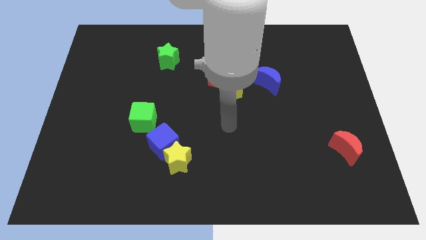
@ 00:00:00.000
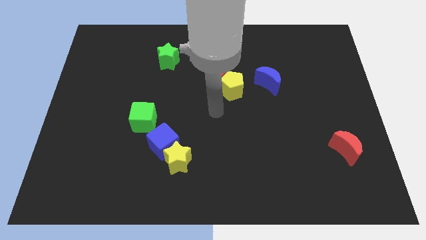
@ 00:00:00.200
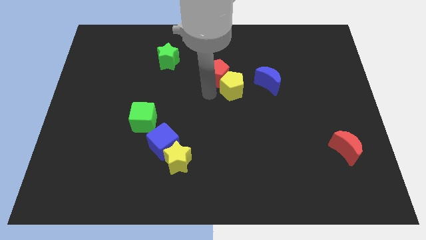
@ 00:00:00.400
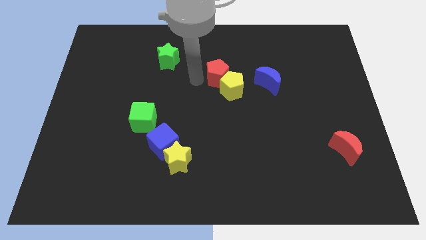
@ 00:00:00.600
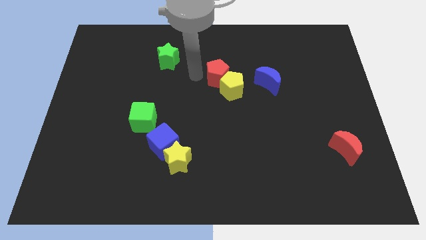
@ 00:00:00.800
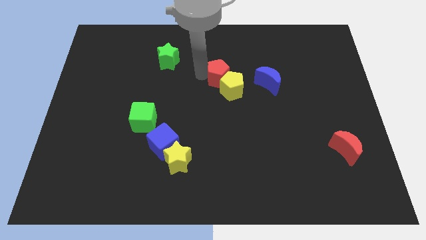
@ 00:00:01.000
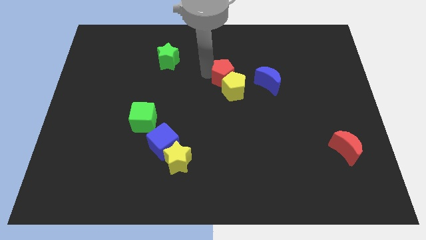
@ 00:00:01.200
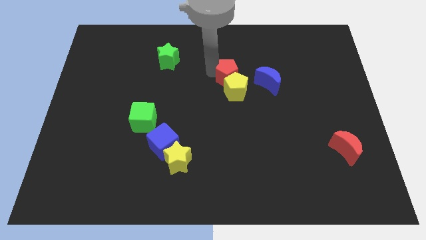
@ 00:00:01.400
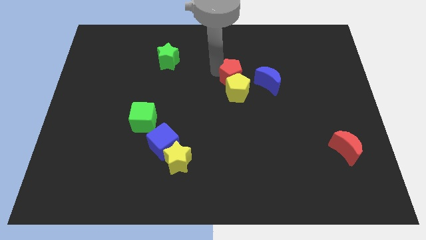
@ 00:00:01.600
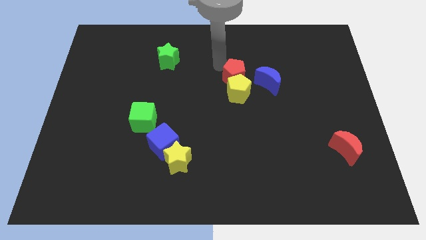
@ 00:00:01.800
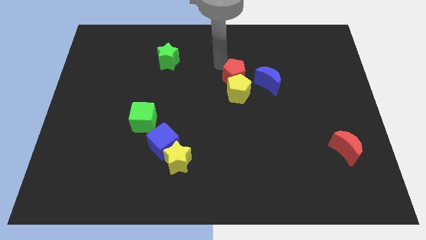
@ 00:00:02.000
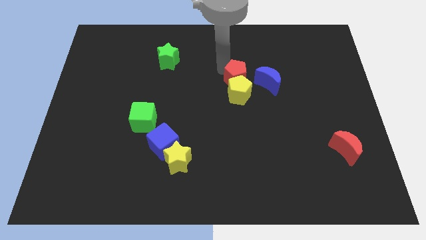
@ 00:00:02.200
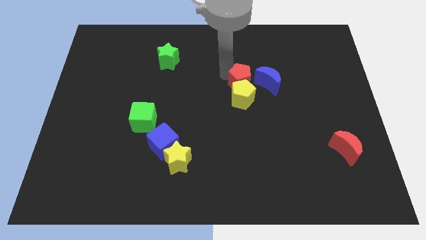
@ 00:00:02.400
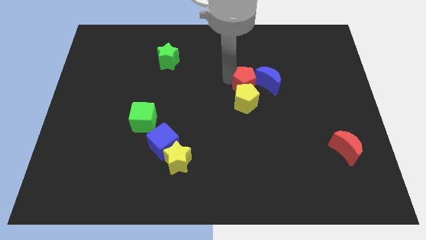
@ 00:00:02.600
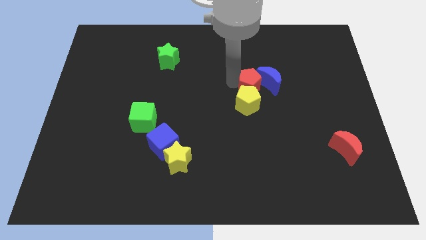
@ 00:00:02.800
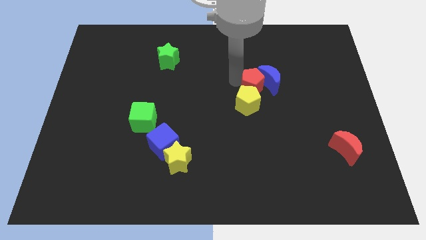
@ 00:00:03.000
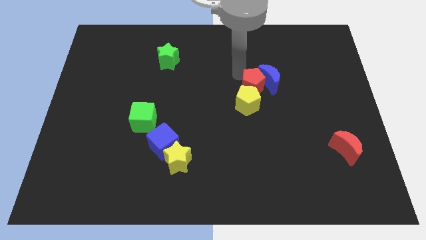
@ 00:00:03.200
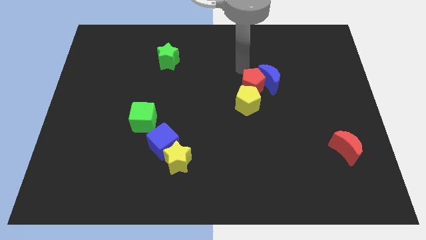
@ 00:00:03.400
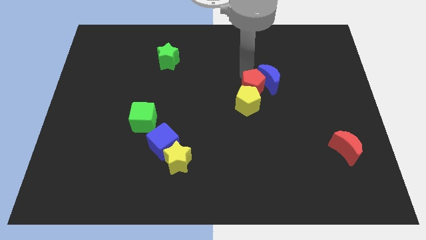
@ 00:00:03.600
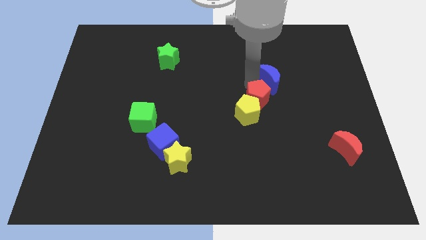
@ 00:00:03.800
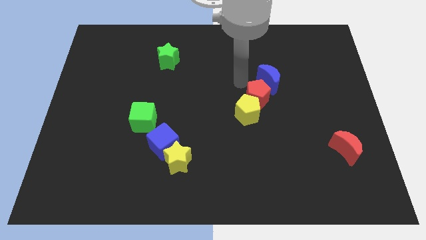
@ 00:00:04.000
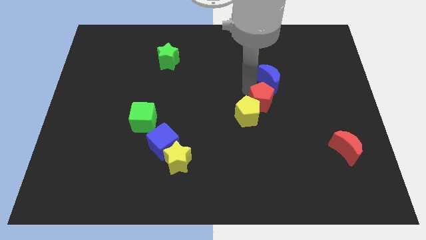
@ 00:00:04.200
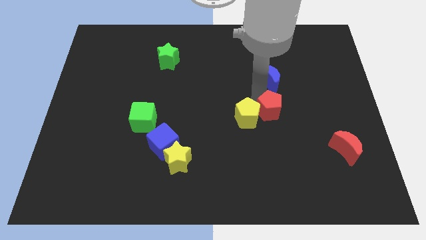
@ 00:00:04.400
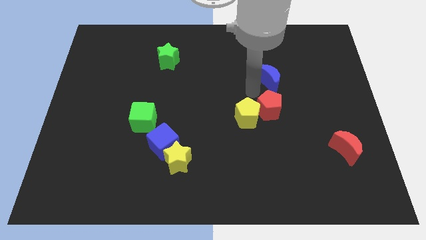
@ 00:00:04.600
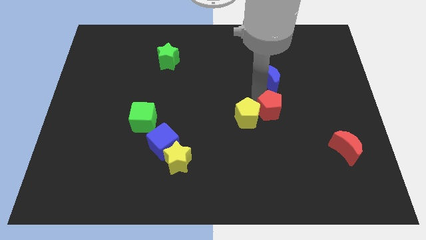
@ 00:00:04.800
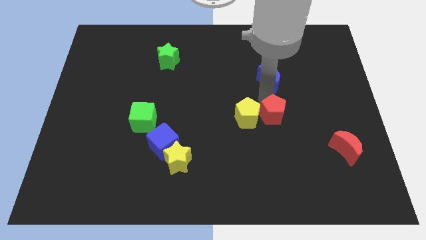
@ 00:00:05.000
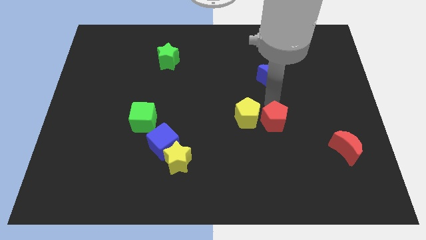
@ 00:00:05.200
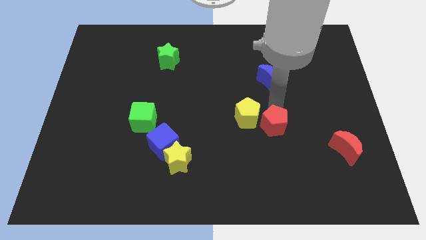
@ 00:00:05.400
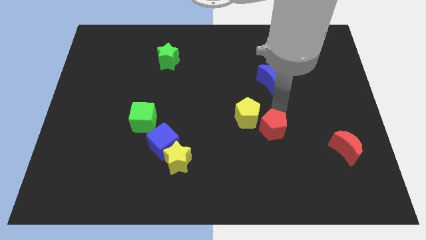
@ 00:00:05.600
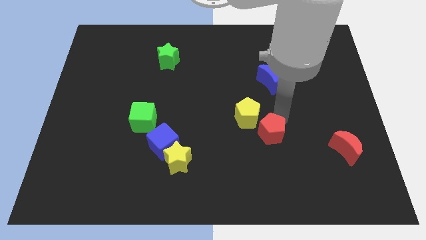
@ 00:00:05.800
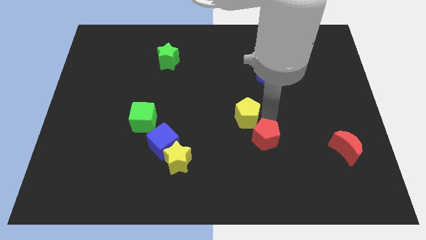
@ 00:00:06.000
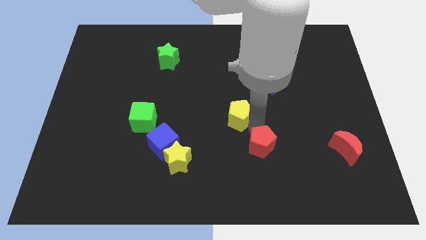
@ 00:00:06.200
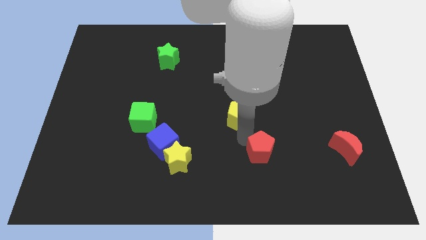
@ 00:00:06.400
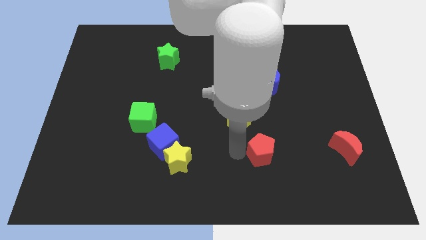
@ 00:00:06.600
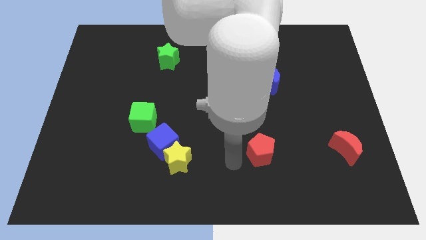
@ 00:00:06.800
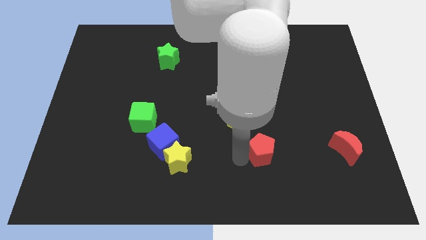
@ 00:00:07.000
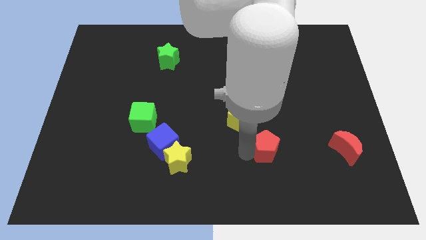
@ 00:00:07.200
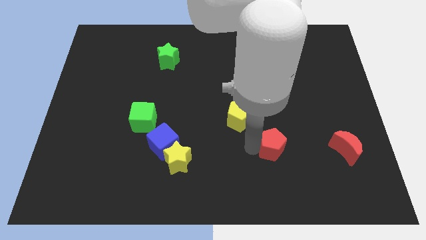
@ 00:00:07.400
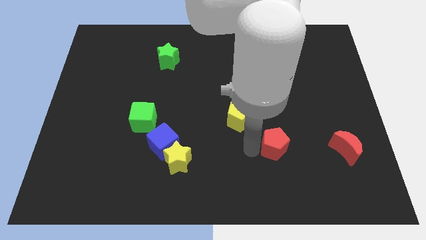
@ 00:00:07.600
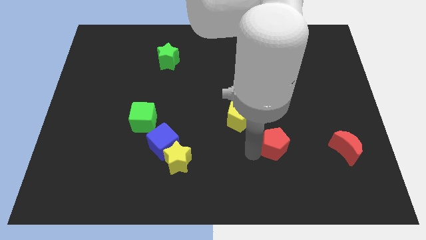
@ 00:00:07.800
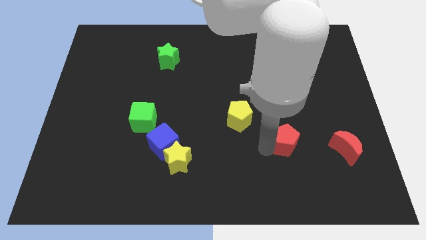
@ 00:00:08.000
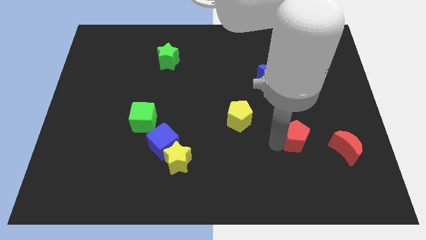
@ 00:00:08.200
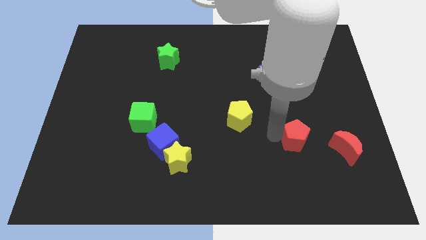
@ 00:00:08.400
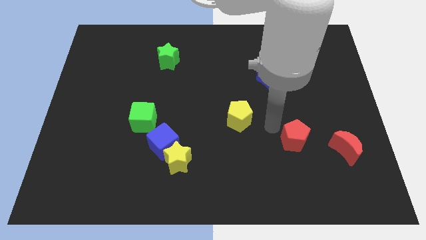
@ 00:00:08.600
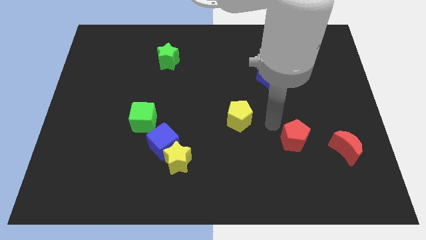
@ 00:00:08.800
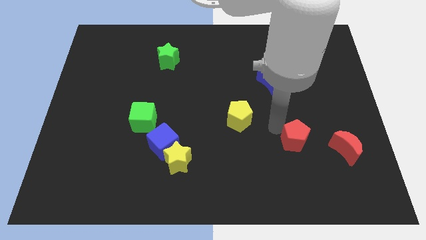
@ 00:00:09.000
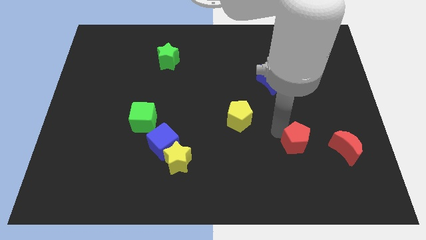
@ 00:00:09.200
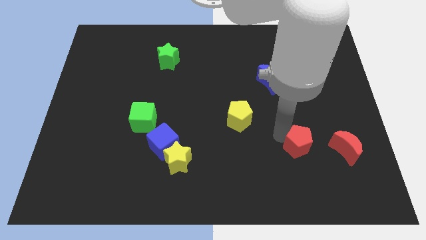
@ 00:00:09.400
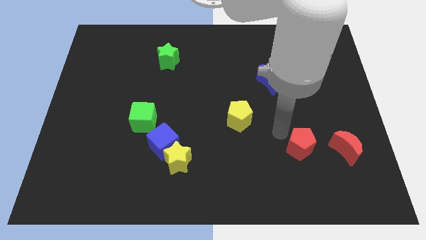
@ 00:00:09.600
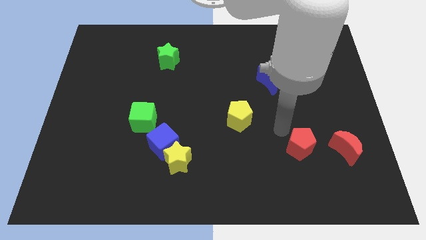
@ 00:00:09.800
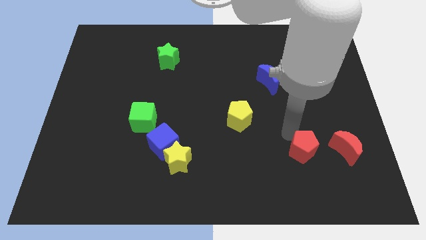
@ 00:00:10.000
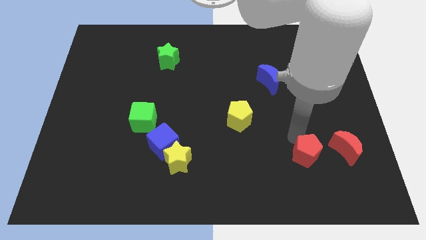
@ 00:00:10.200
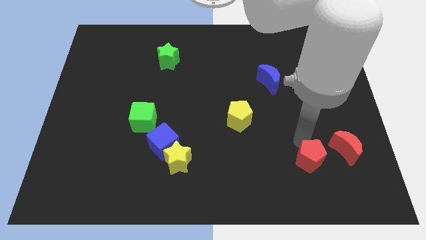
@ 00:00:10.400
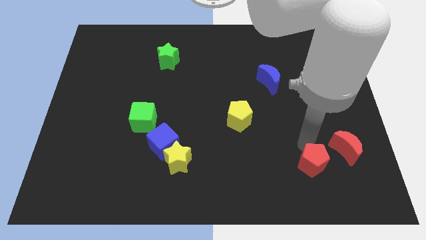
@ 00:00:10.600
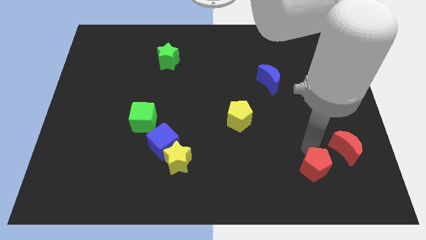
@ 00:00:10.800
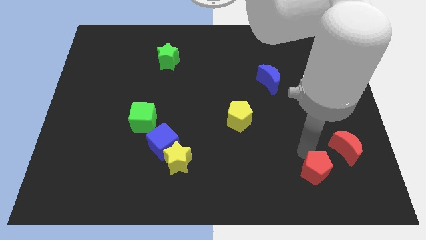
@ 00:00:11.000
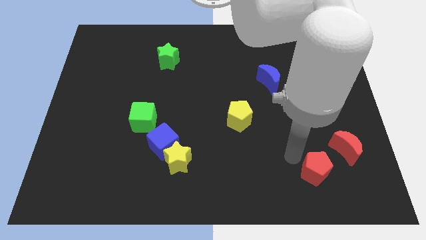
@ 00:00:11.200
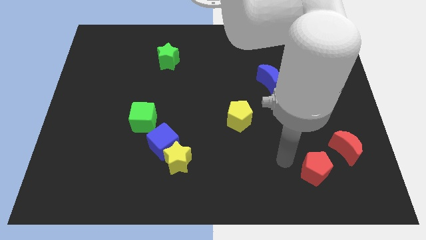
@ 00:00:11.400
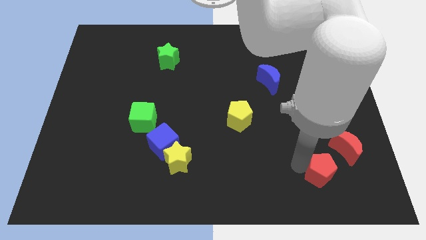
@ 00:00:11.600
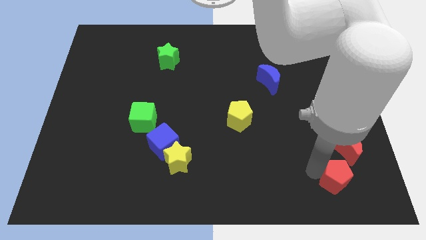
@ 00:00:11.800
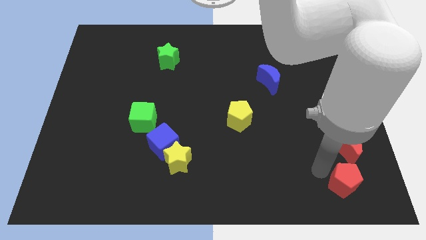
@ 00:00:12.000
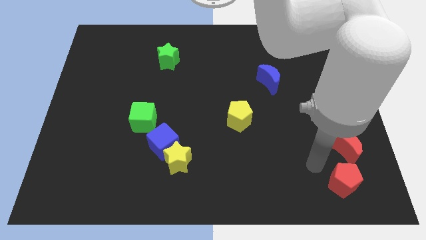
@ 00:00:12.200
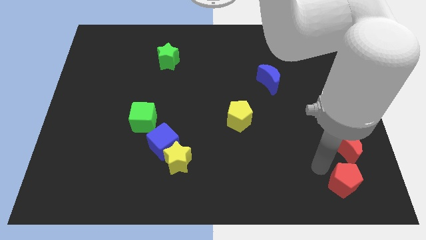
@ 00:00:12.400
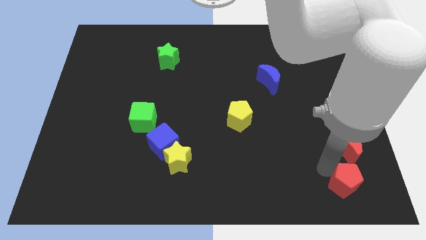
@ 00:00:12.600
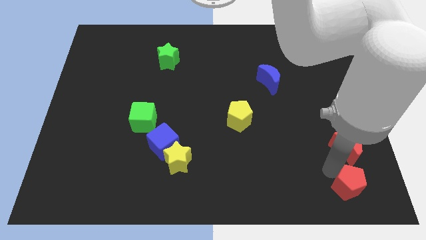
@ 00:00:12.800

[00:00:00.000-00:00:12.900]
move the red pentagon to the lower right corner
